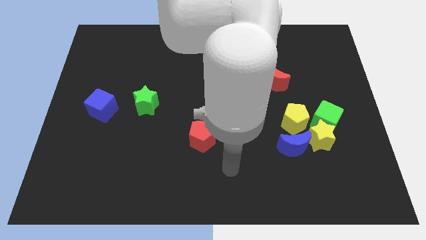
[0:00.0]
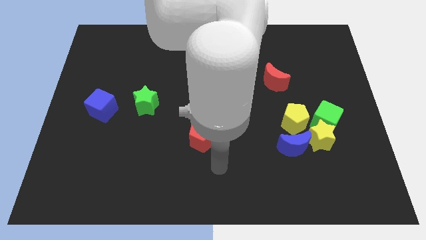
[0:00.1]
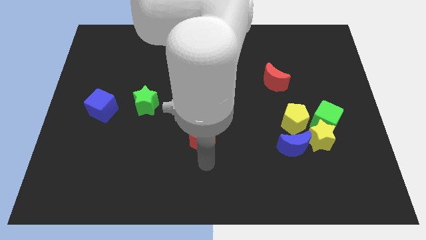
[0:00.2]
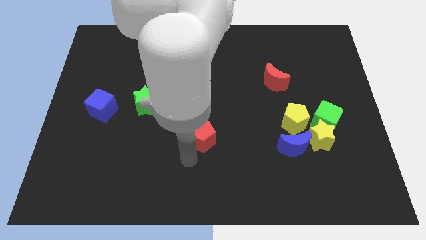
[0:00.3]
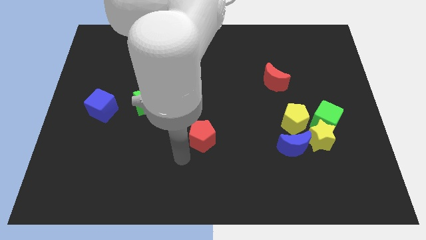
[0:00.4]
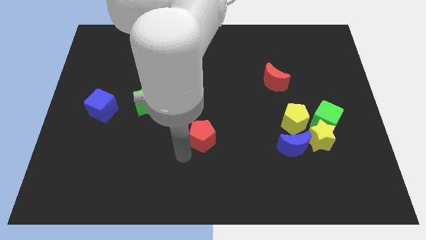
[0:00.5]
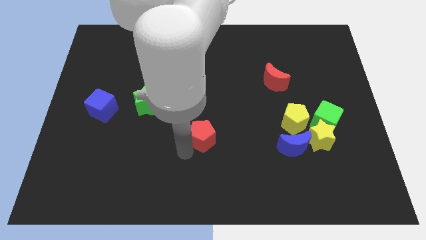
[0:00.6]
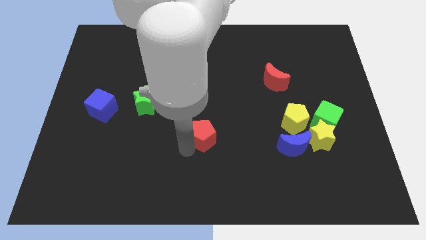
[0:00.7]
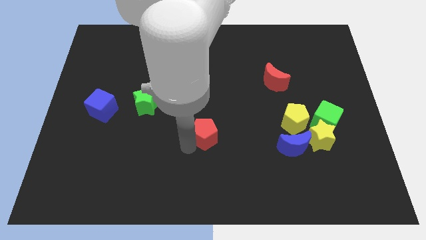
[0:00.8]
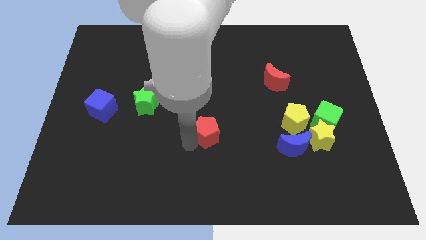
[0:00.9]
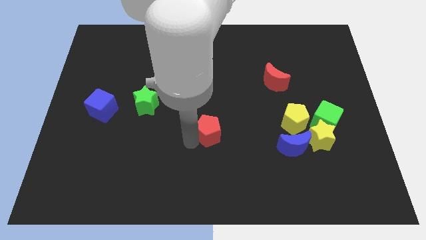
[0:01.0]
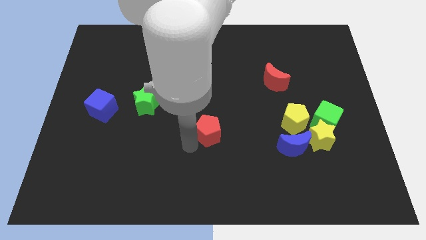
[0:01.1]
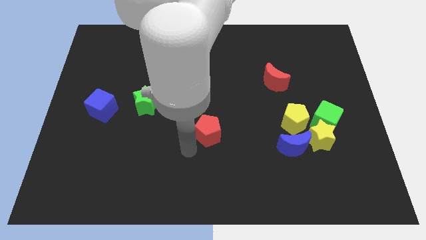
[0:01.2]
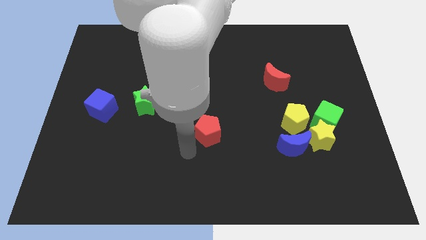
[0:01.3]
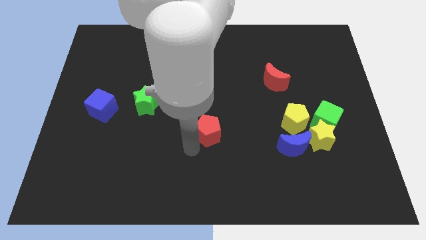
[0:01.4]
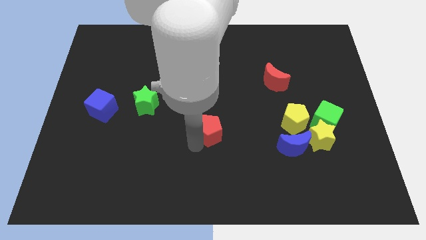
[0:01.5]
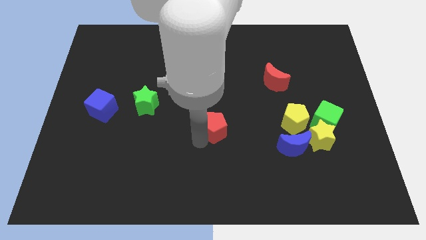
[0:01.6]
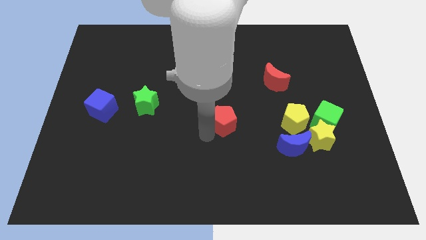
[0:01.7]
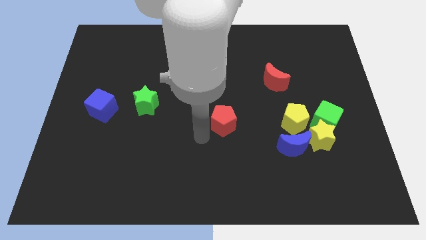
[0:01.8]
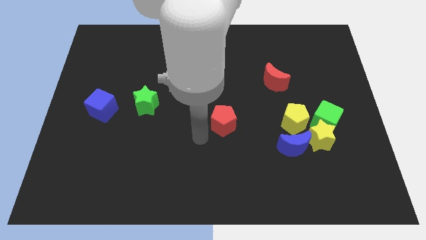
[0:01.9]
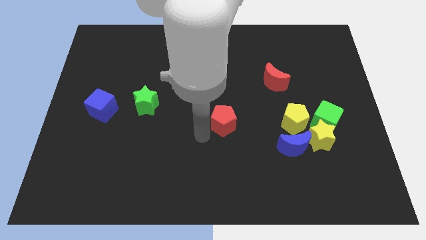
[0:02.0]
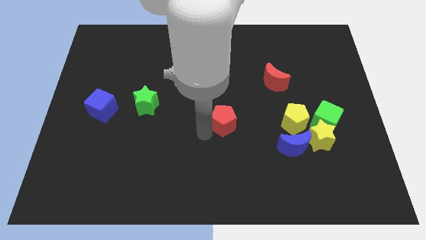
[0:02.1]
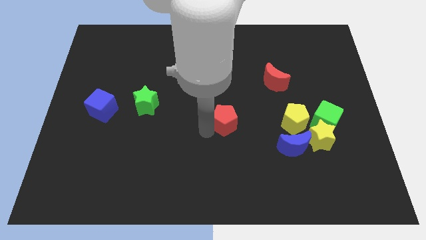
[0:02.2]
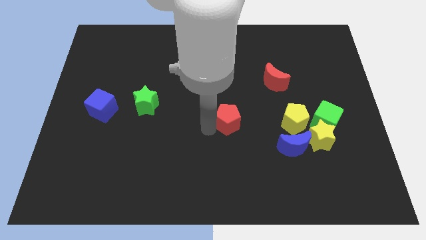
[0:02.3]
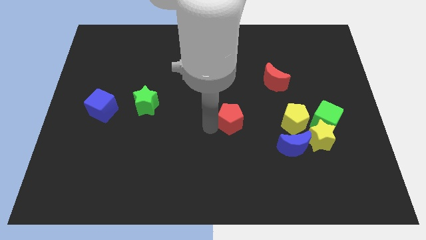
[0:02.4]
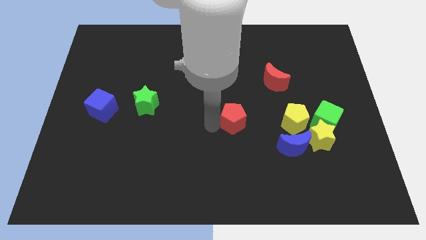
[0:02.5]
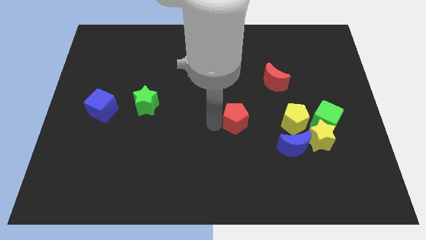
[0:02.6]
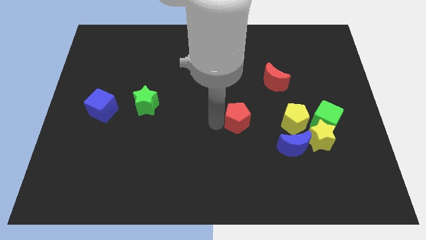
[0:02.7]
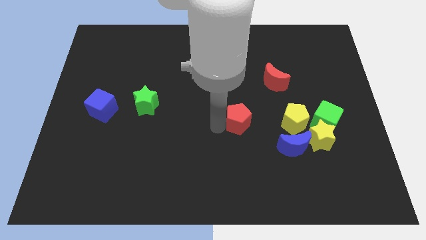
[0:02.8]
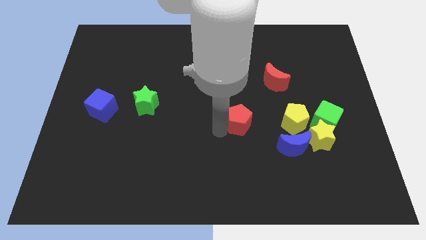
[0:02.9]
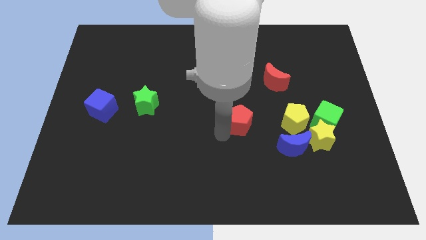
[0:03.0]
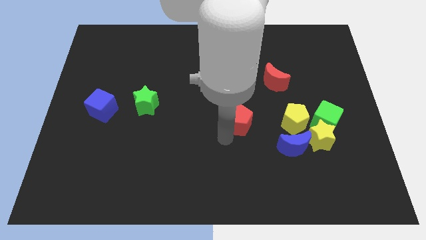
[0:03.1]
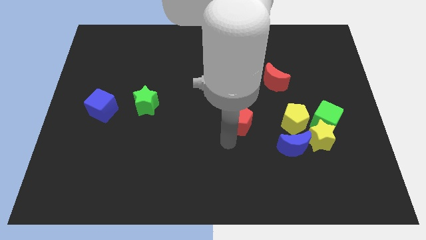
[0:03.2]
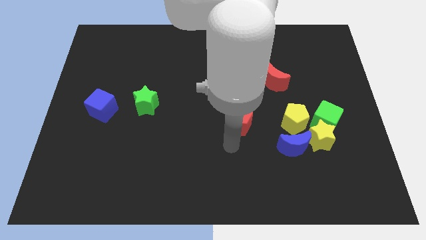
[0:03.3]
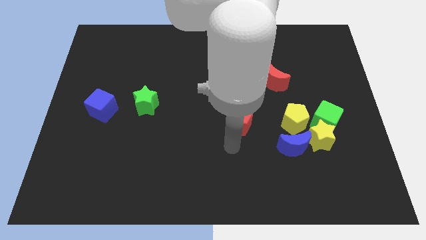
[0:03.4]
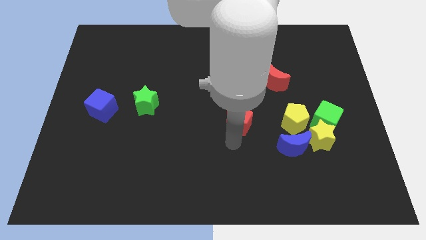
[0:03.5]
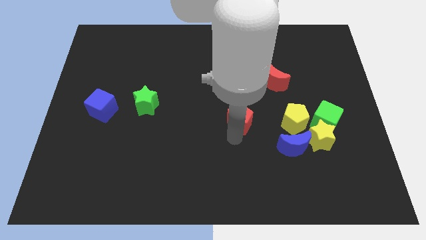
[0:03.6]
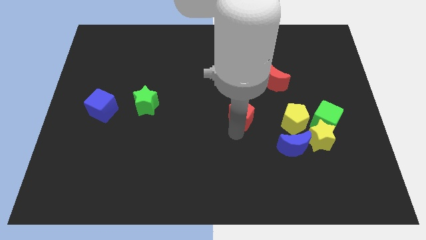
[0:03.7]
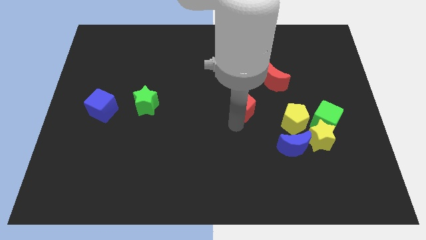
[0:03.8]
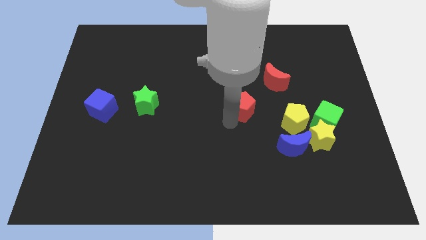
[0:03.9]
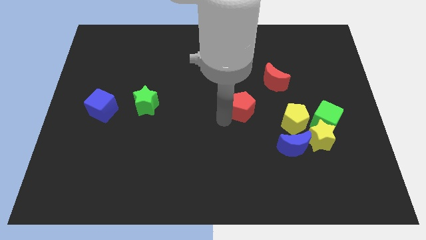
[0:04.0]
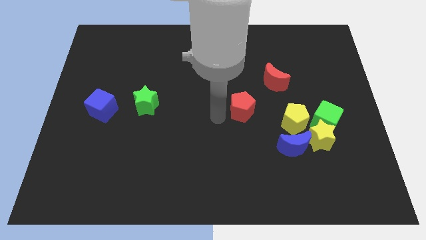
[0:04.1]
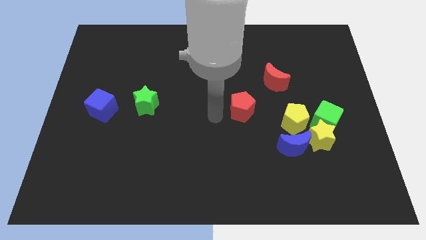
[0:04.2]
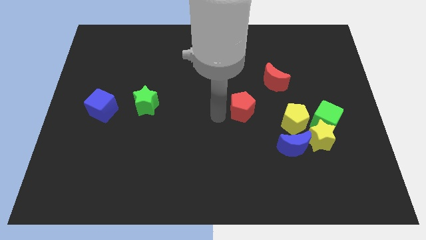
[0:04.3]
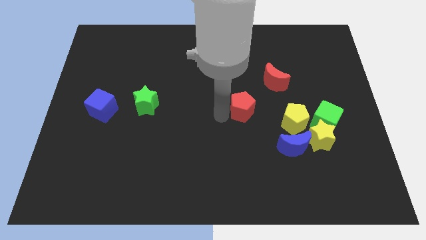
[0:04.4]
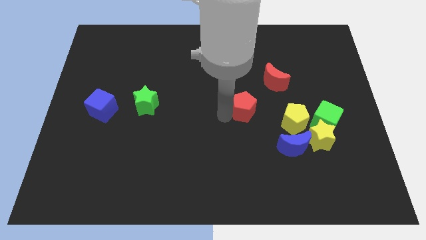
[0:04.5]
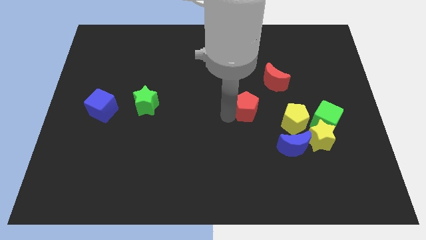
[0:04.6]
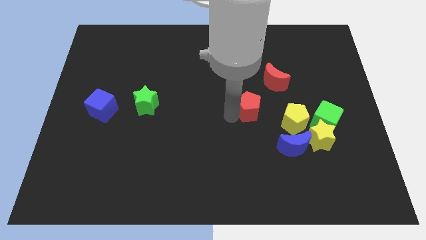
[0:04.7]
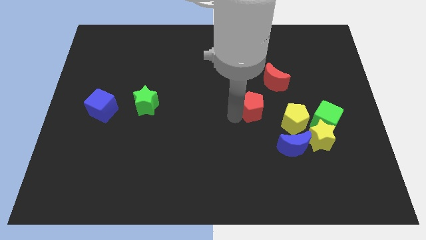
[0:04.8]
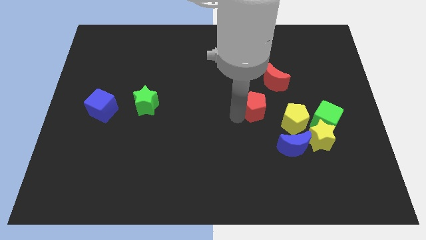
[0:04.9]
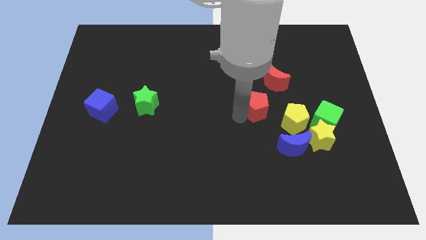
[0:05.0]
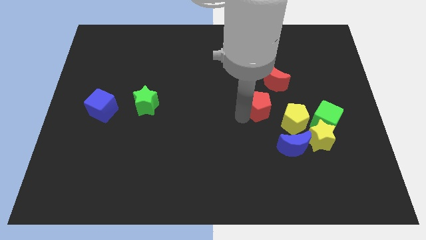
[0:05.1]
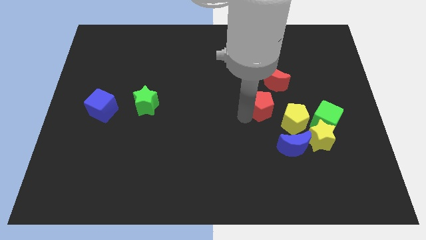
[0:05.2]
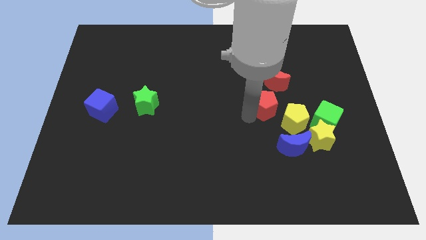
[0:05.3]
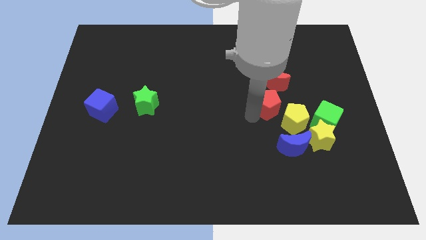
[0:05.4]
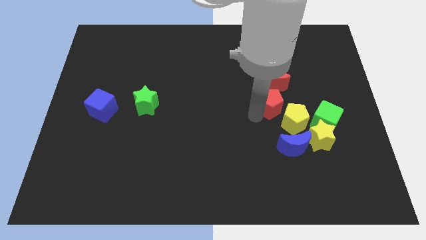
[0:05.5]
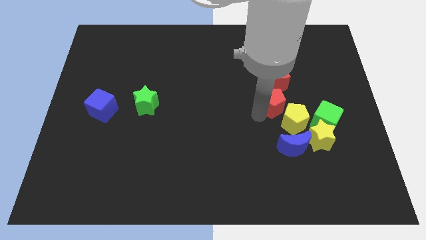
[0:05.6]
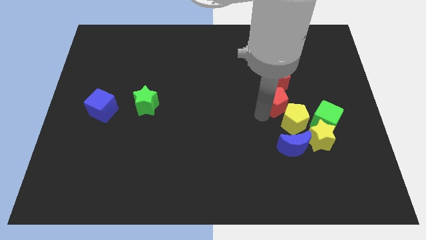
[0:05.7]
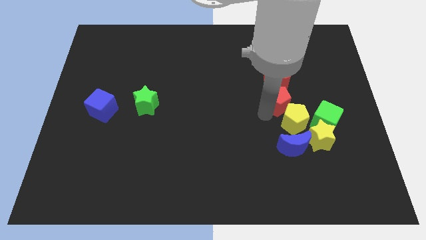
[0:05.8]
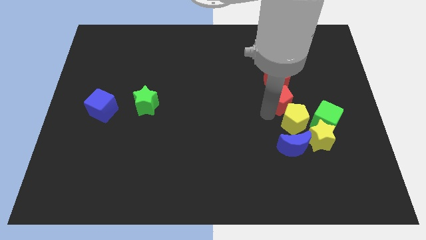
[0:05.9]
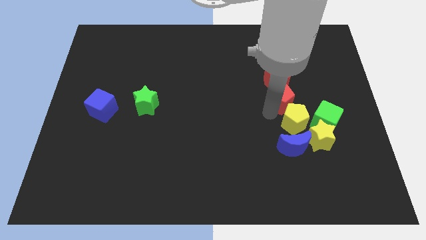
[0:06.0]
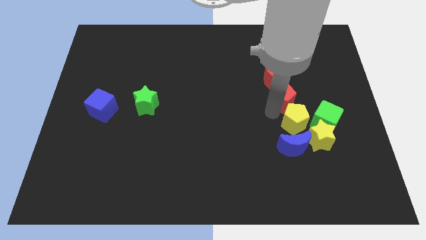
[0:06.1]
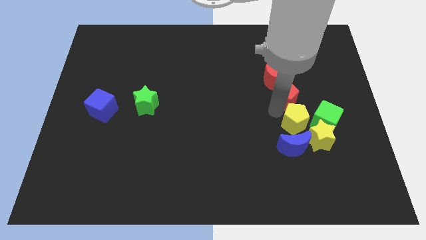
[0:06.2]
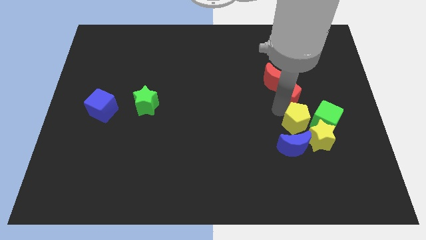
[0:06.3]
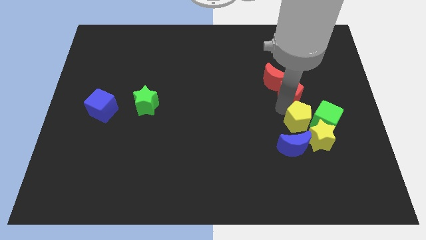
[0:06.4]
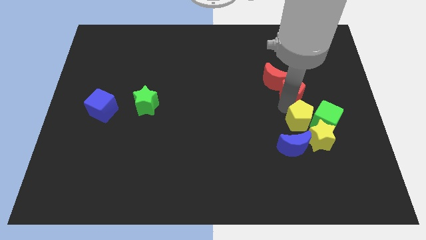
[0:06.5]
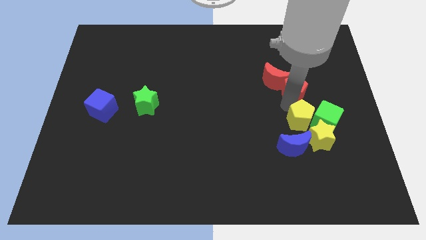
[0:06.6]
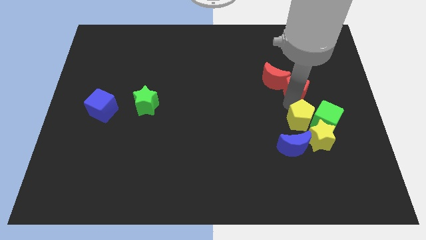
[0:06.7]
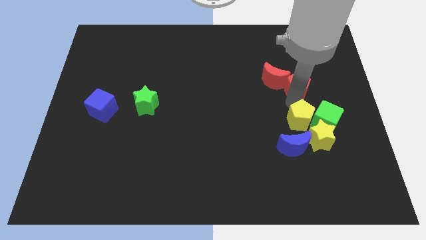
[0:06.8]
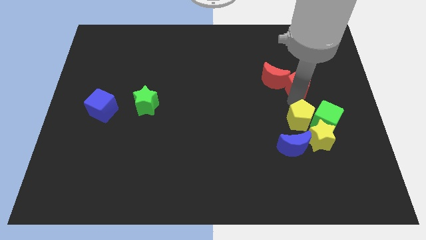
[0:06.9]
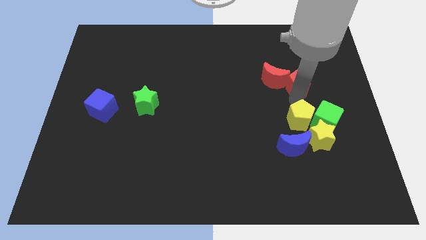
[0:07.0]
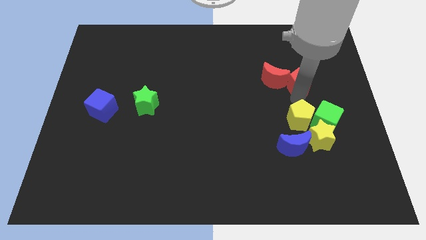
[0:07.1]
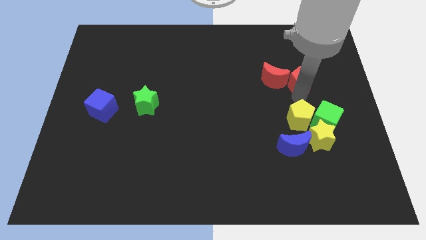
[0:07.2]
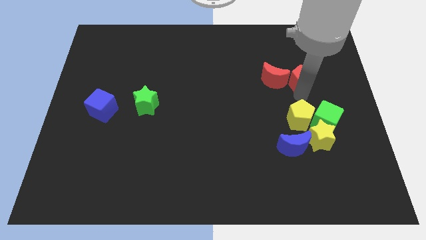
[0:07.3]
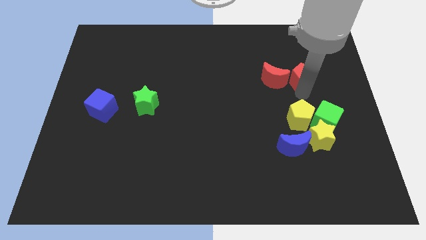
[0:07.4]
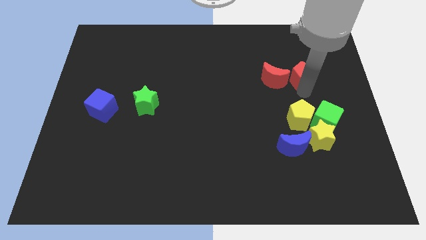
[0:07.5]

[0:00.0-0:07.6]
slide the red pentagon to the top right side of the red moon
